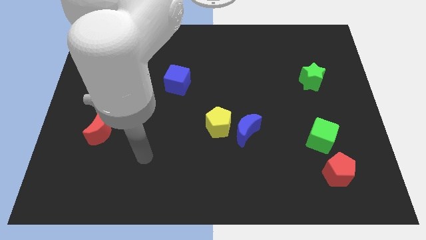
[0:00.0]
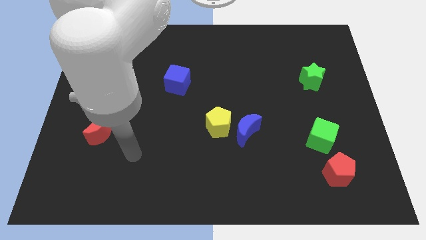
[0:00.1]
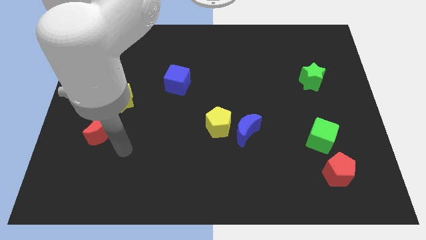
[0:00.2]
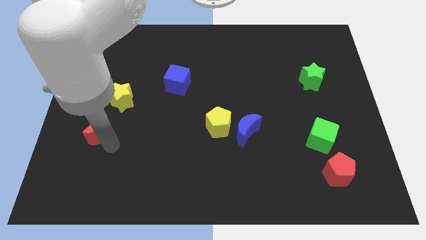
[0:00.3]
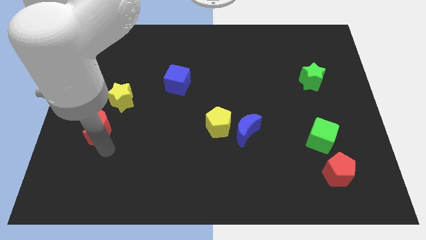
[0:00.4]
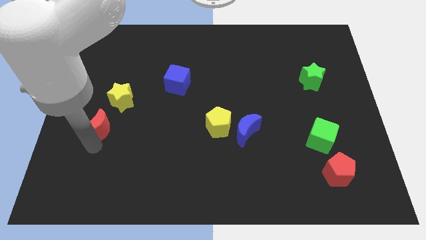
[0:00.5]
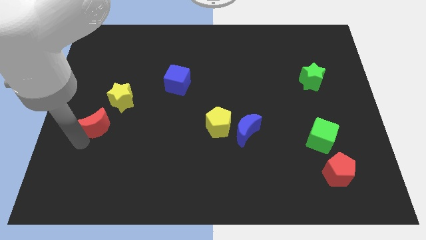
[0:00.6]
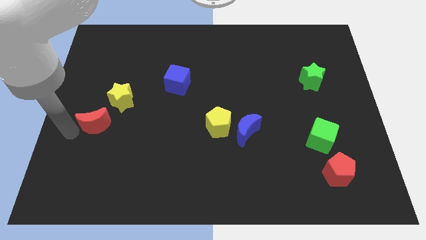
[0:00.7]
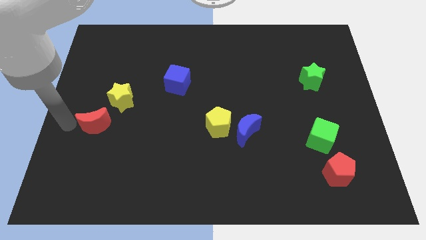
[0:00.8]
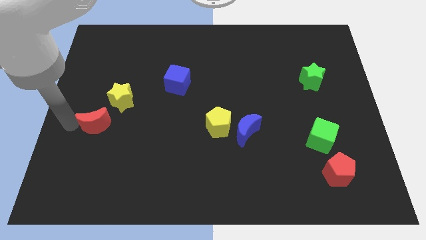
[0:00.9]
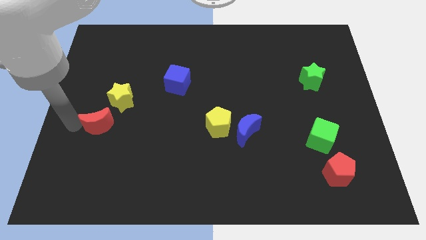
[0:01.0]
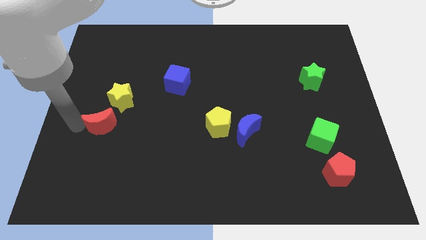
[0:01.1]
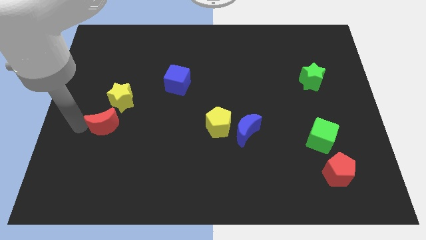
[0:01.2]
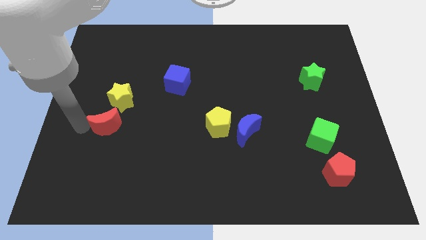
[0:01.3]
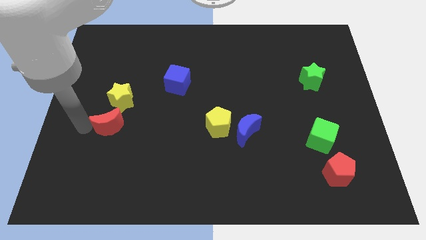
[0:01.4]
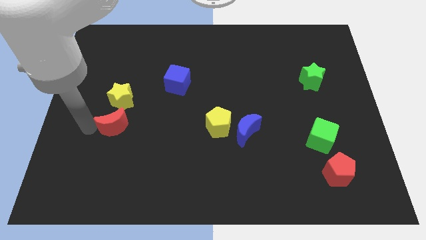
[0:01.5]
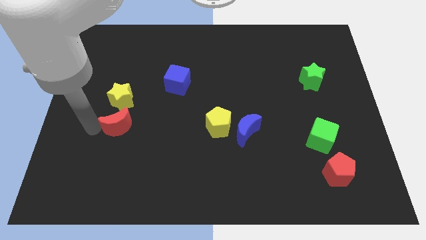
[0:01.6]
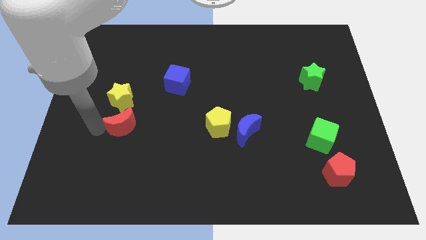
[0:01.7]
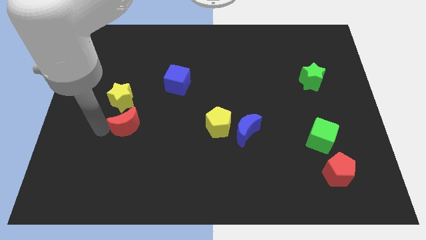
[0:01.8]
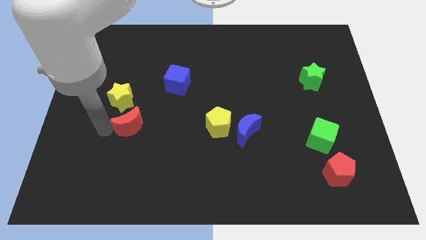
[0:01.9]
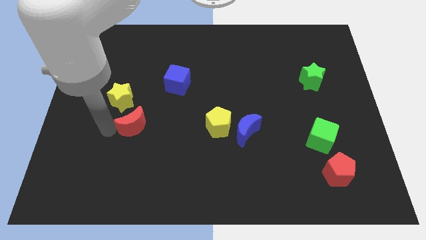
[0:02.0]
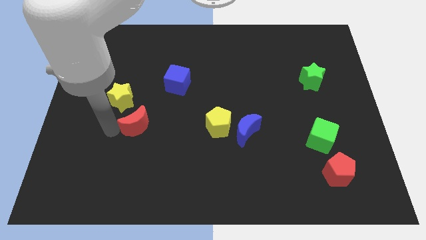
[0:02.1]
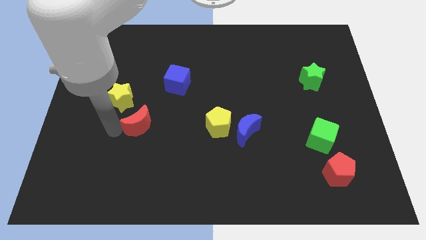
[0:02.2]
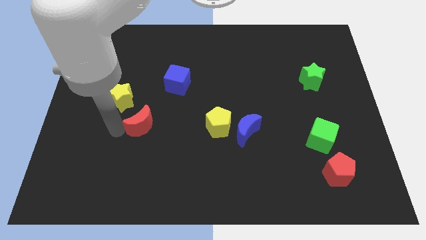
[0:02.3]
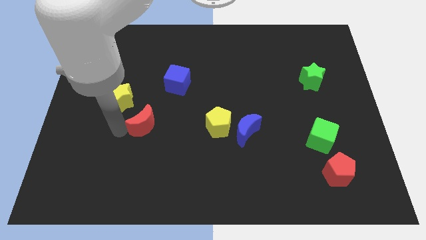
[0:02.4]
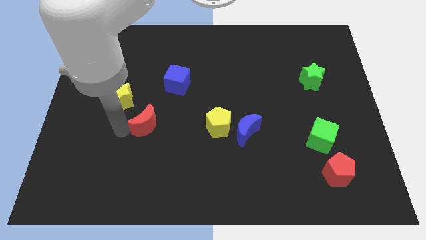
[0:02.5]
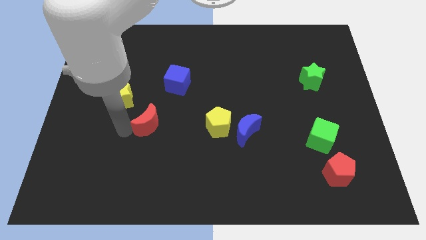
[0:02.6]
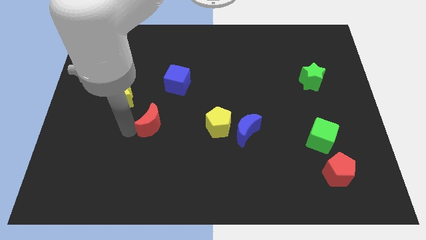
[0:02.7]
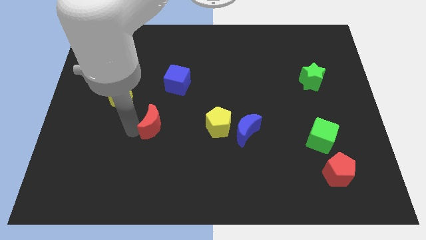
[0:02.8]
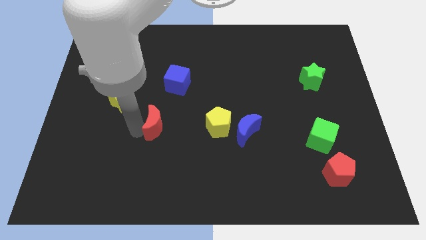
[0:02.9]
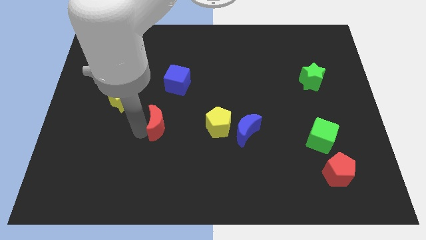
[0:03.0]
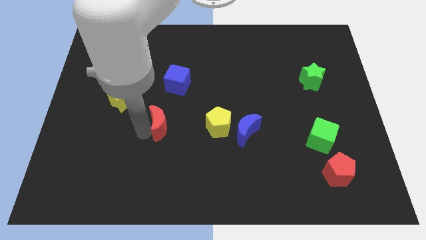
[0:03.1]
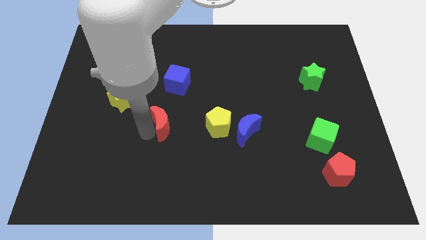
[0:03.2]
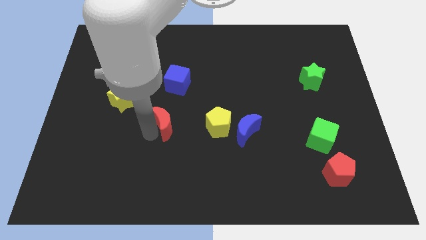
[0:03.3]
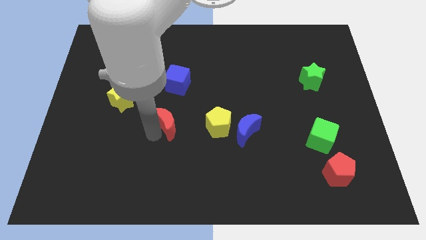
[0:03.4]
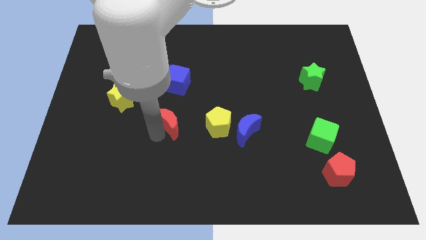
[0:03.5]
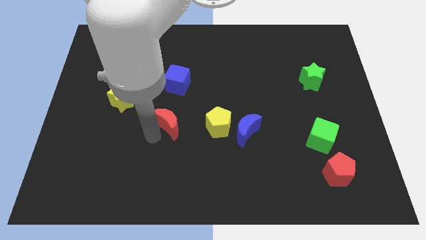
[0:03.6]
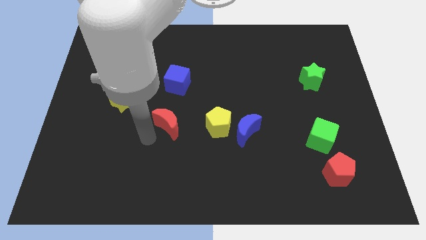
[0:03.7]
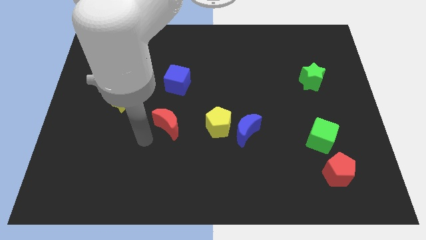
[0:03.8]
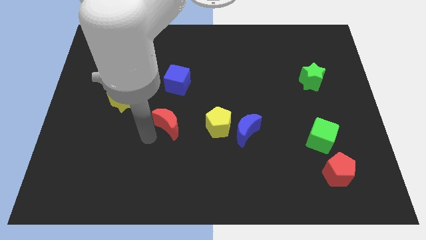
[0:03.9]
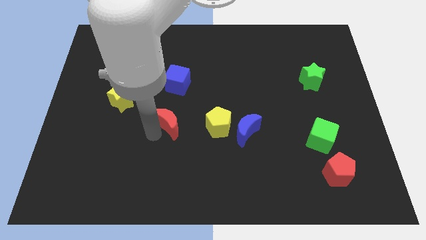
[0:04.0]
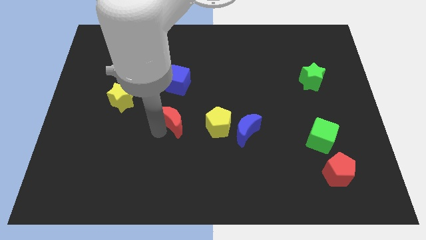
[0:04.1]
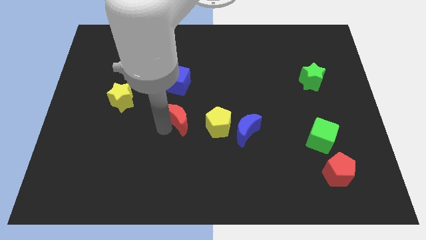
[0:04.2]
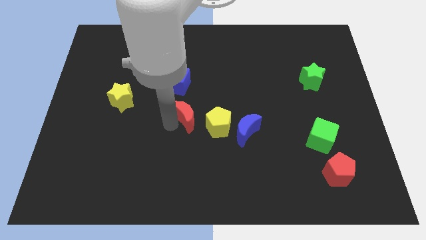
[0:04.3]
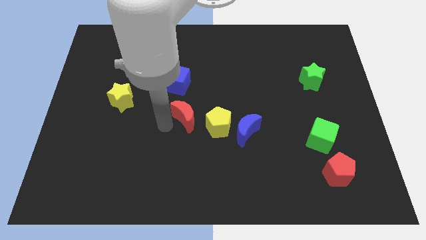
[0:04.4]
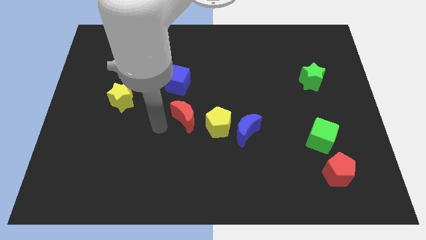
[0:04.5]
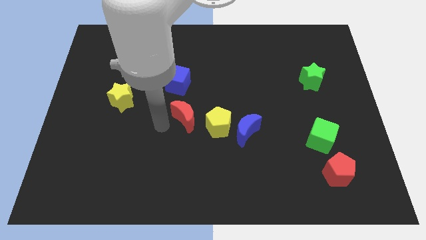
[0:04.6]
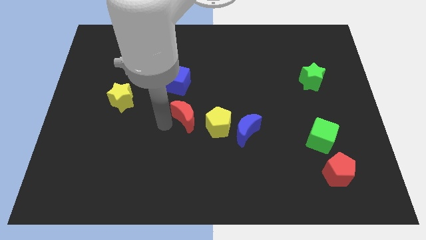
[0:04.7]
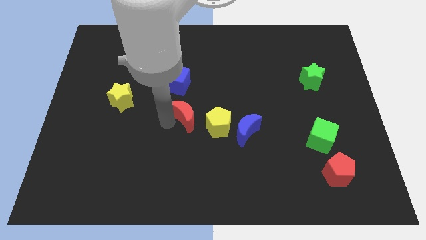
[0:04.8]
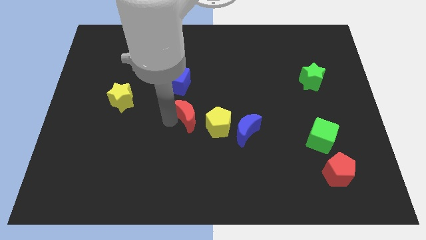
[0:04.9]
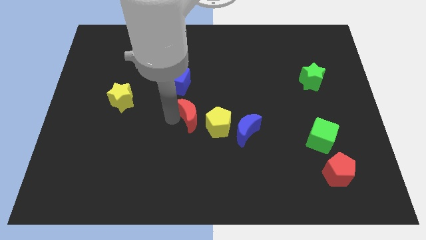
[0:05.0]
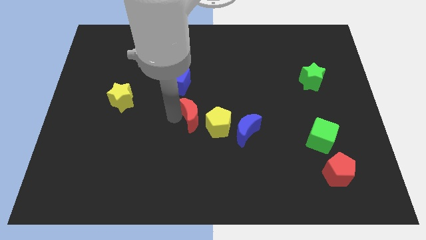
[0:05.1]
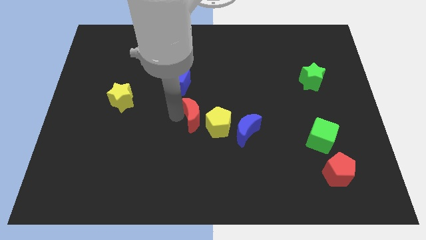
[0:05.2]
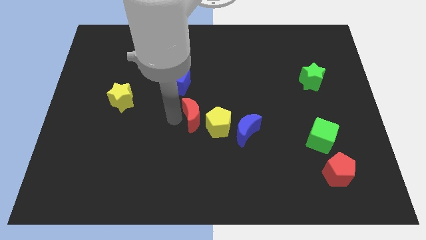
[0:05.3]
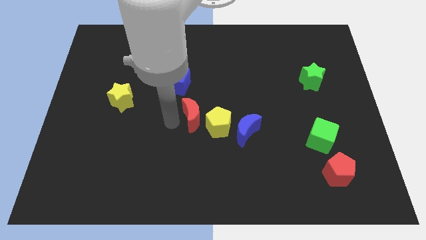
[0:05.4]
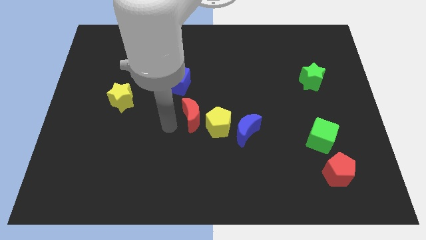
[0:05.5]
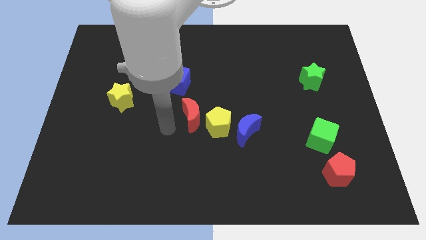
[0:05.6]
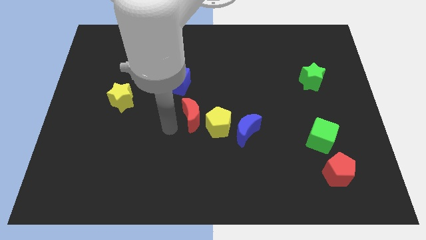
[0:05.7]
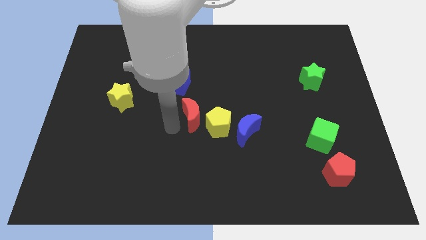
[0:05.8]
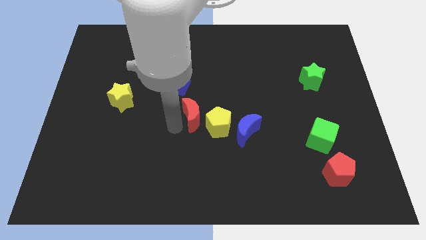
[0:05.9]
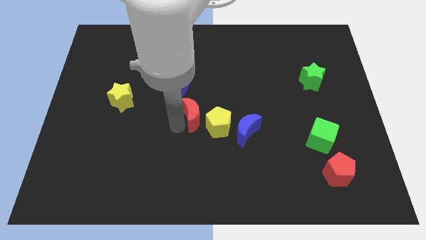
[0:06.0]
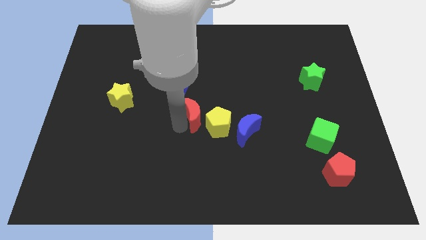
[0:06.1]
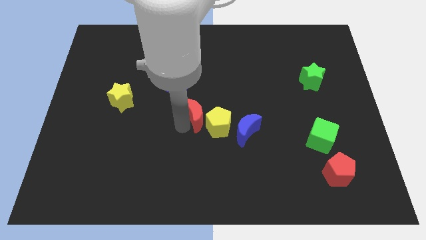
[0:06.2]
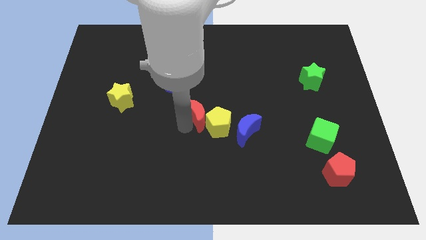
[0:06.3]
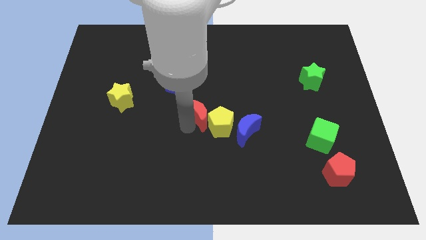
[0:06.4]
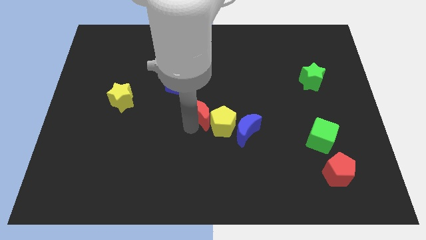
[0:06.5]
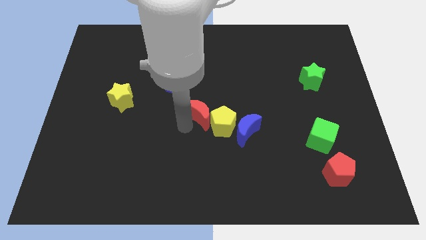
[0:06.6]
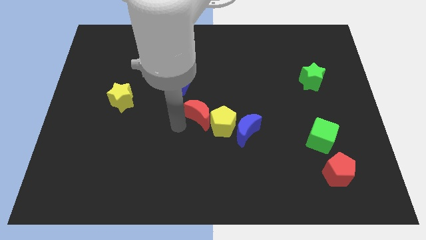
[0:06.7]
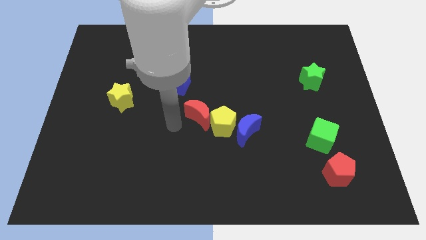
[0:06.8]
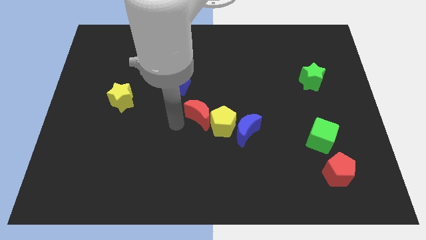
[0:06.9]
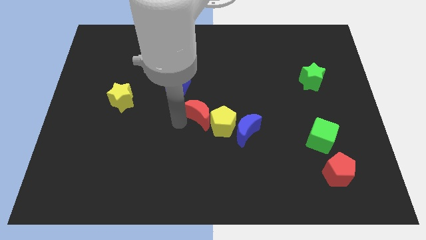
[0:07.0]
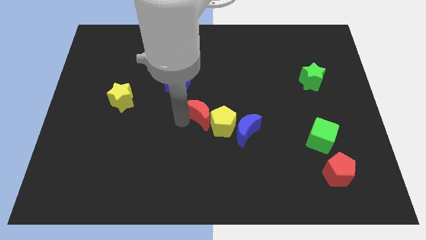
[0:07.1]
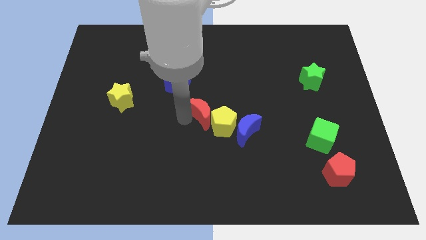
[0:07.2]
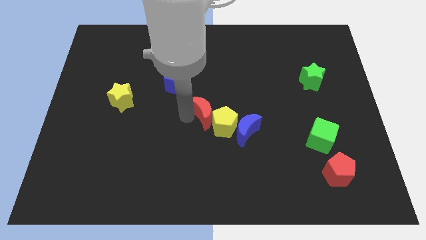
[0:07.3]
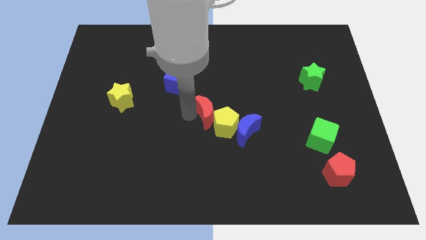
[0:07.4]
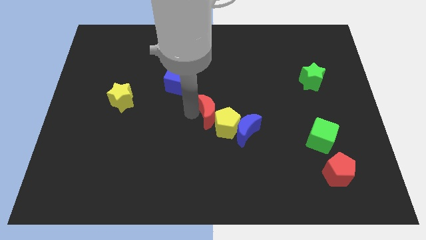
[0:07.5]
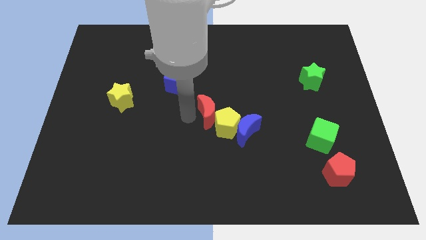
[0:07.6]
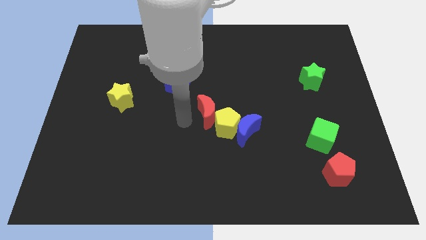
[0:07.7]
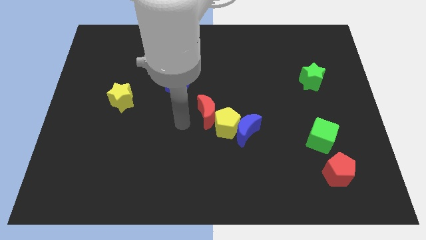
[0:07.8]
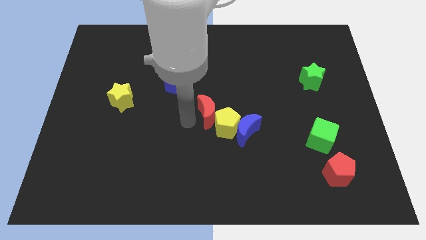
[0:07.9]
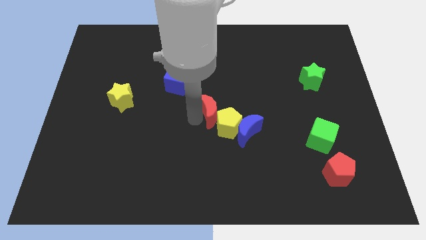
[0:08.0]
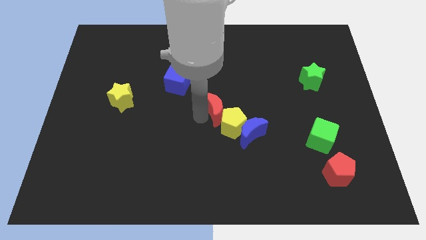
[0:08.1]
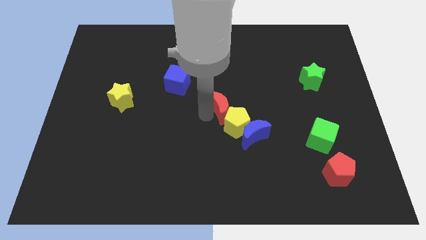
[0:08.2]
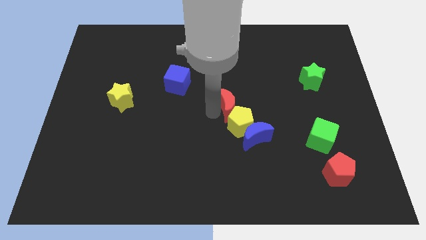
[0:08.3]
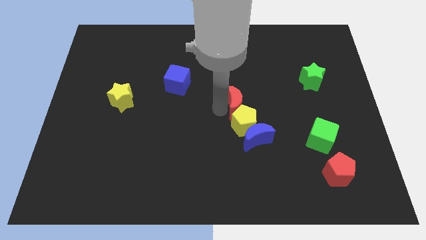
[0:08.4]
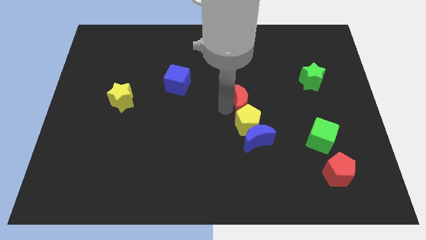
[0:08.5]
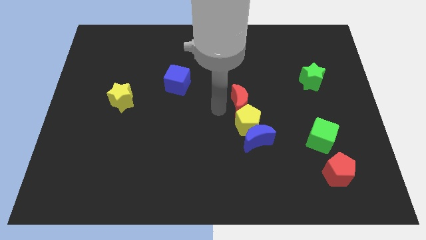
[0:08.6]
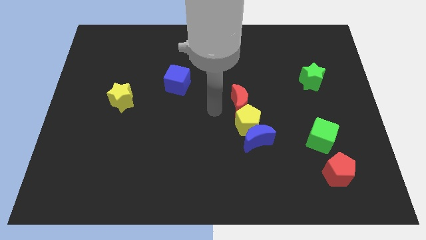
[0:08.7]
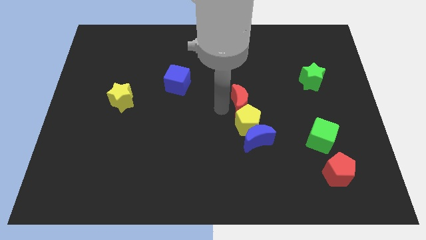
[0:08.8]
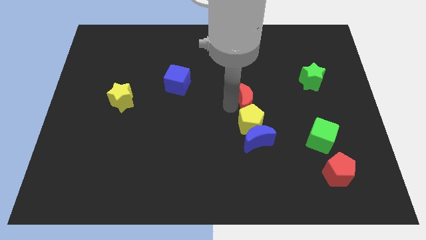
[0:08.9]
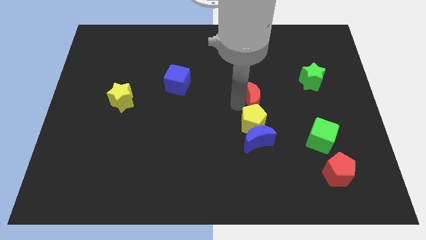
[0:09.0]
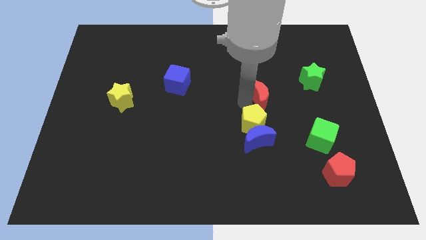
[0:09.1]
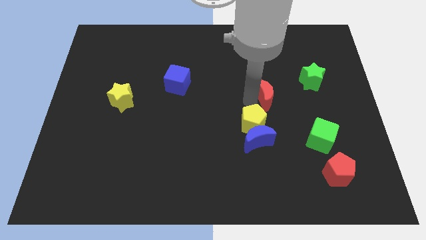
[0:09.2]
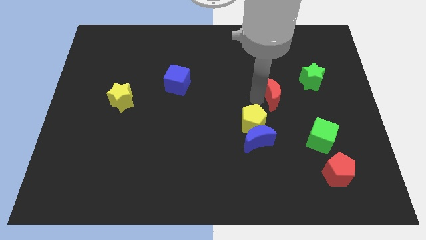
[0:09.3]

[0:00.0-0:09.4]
put the red moon to the bottom left side of the green star
